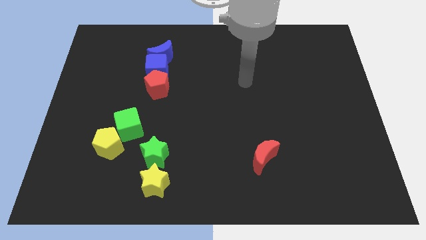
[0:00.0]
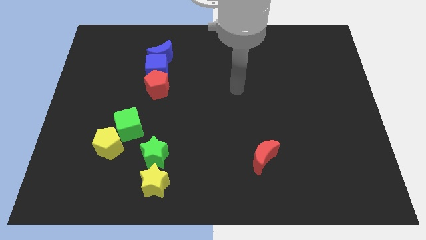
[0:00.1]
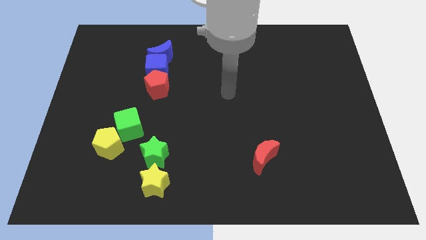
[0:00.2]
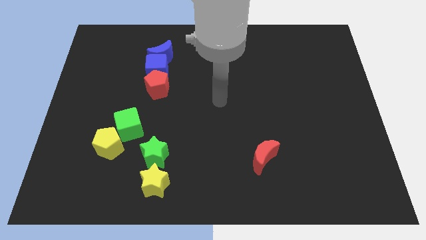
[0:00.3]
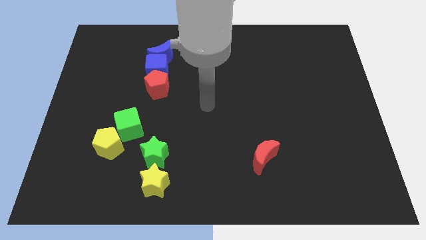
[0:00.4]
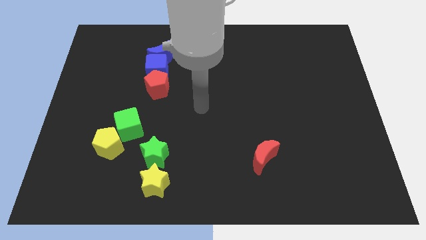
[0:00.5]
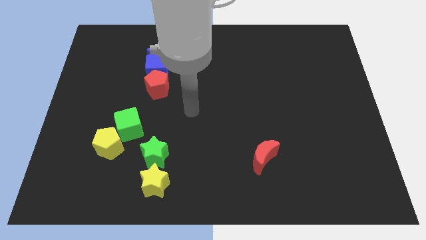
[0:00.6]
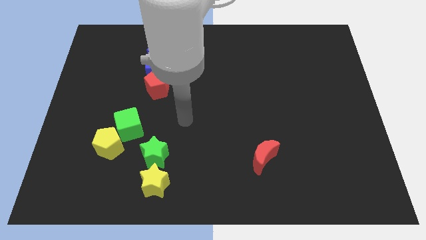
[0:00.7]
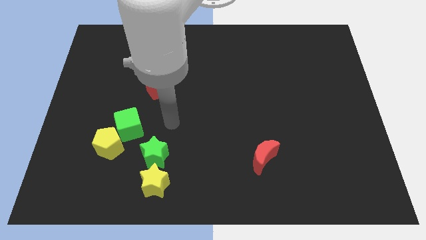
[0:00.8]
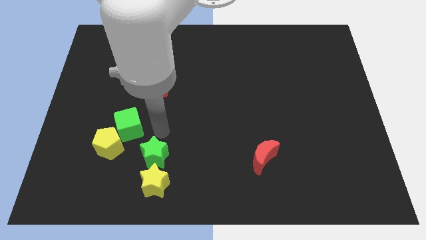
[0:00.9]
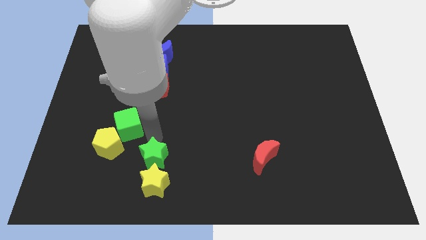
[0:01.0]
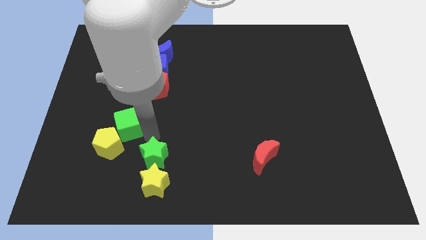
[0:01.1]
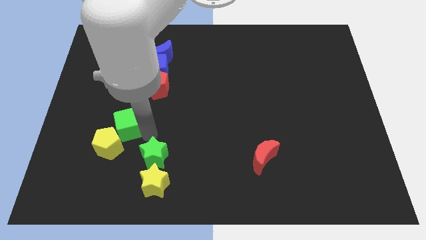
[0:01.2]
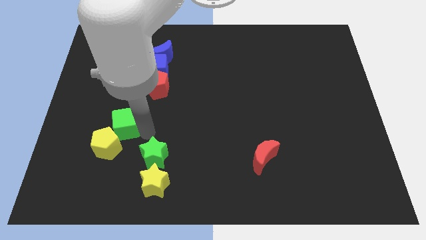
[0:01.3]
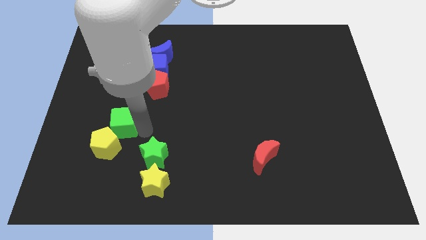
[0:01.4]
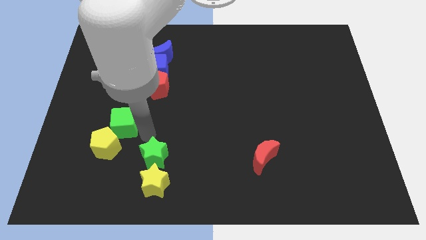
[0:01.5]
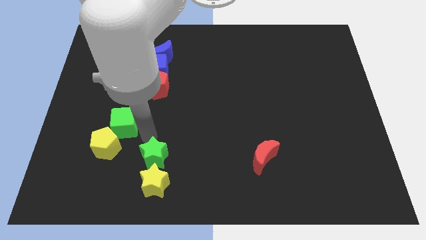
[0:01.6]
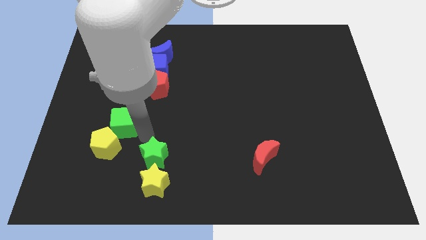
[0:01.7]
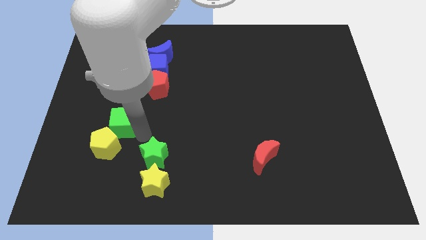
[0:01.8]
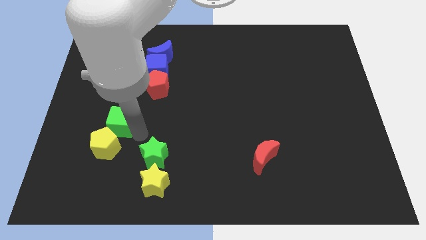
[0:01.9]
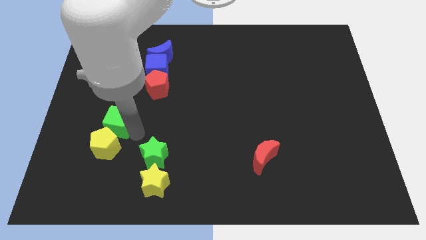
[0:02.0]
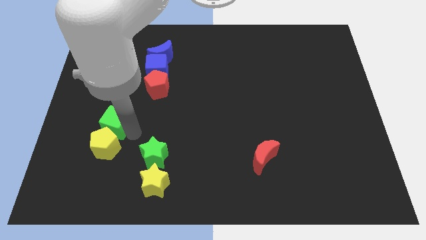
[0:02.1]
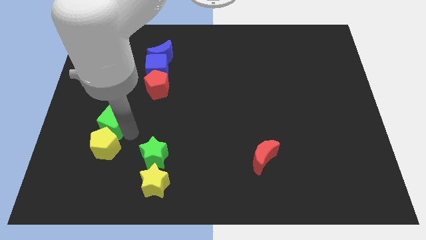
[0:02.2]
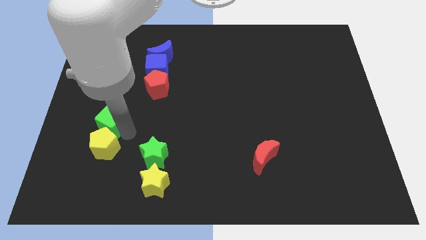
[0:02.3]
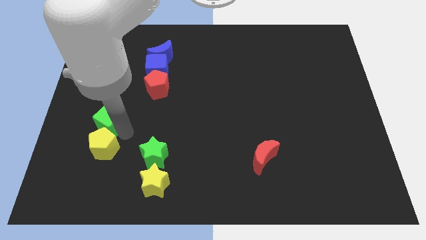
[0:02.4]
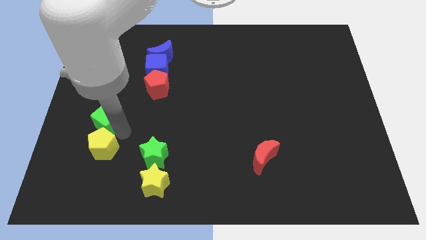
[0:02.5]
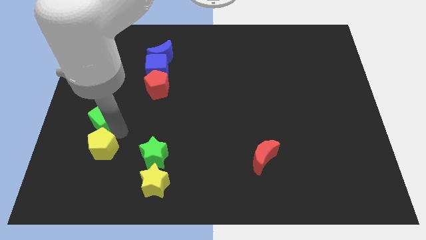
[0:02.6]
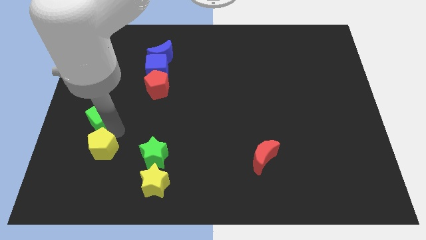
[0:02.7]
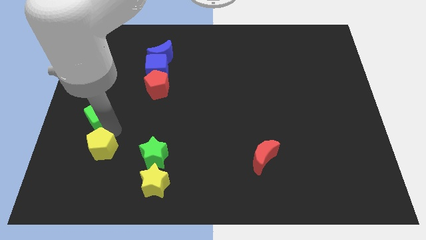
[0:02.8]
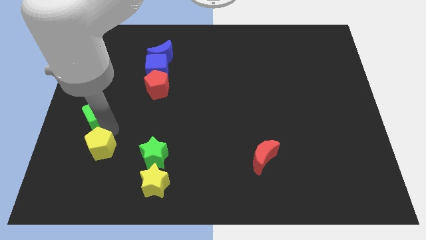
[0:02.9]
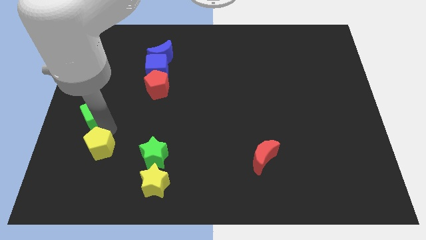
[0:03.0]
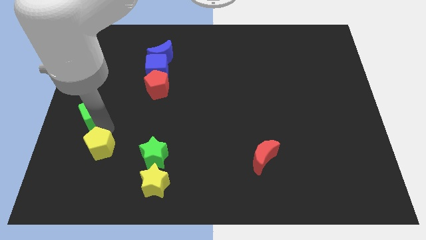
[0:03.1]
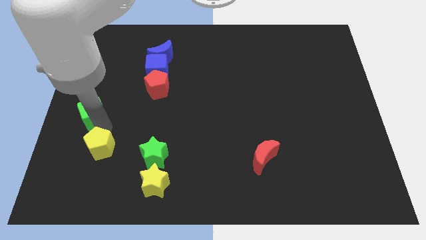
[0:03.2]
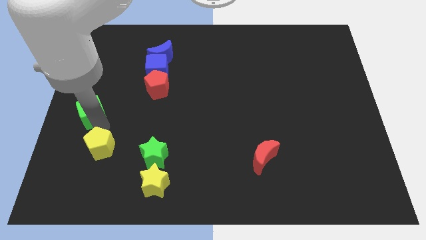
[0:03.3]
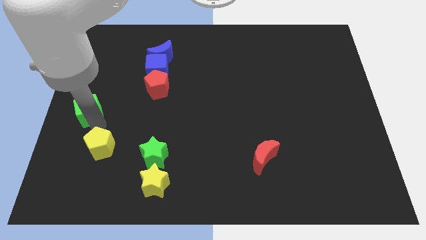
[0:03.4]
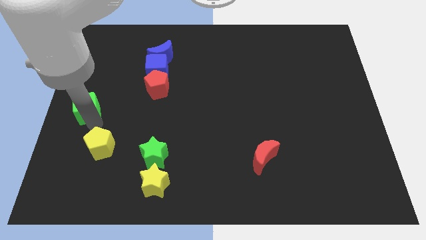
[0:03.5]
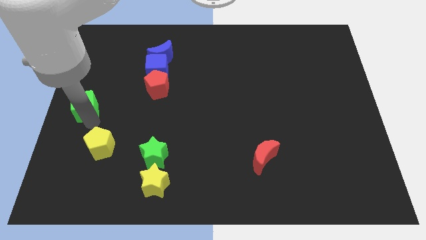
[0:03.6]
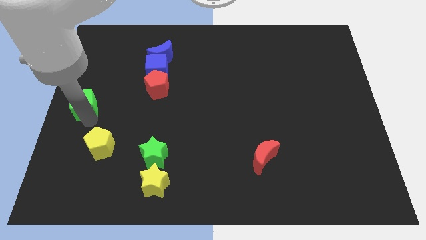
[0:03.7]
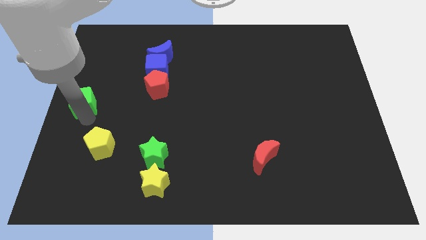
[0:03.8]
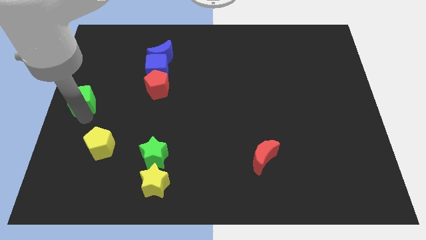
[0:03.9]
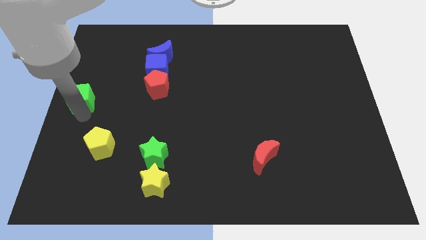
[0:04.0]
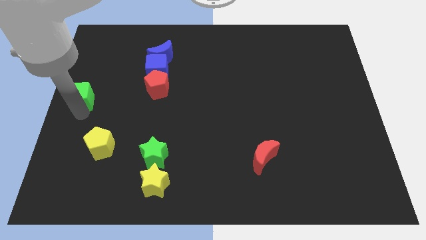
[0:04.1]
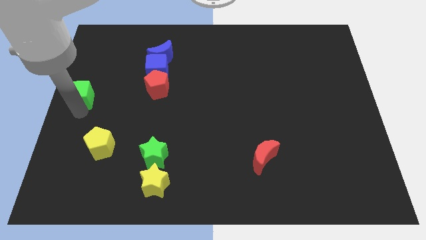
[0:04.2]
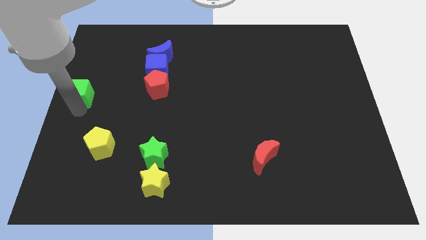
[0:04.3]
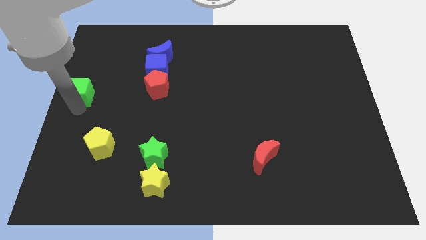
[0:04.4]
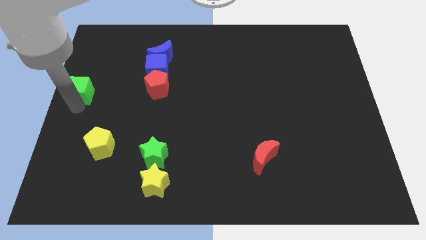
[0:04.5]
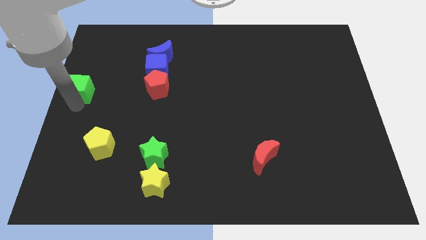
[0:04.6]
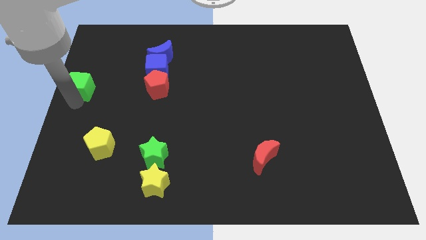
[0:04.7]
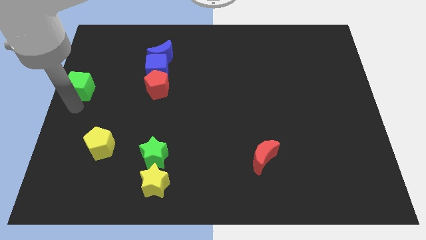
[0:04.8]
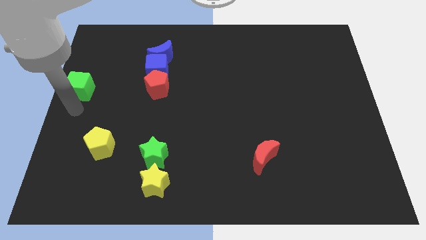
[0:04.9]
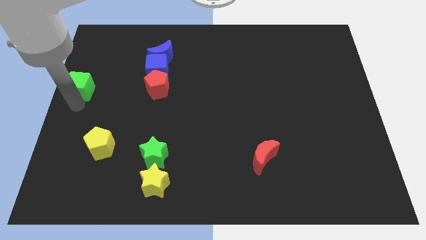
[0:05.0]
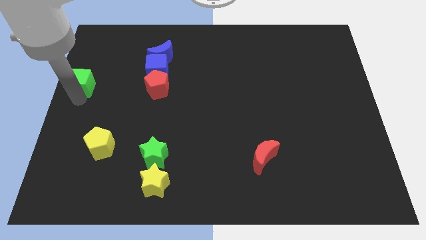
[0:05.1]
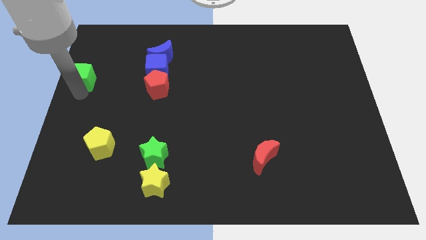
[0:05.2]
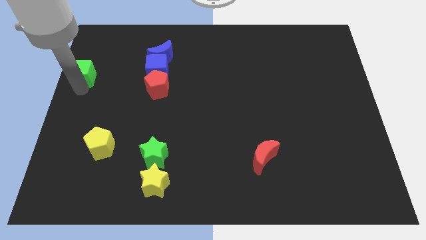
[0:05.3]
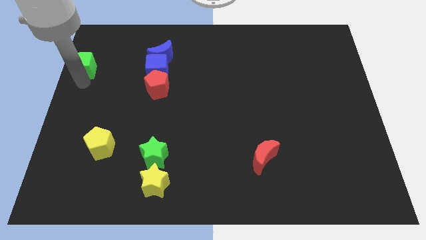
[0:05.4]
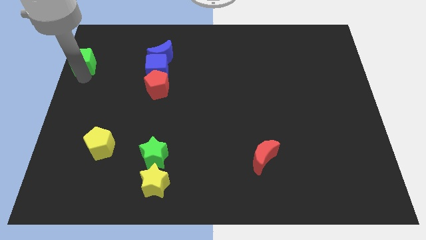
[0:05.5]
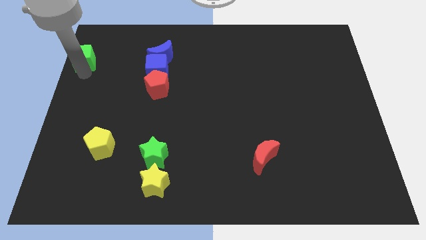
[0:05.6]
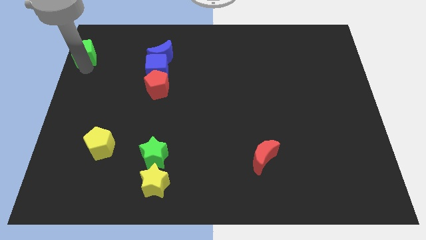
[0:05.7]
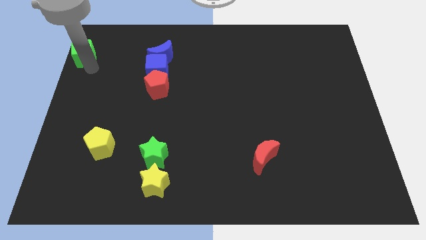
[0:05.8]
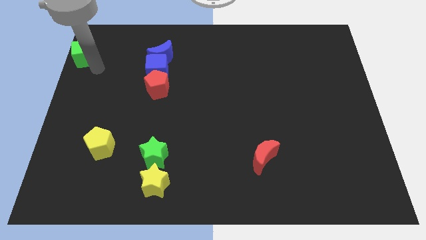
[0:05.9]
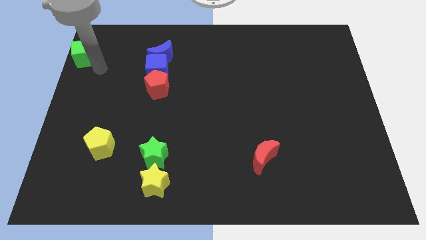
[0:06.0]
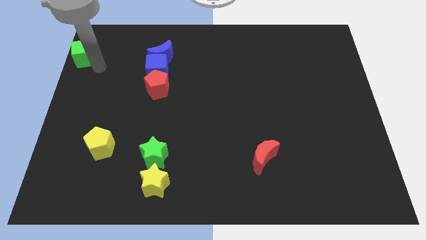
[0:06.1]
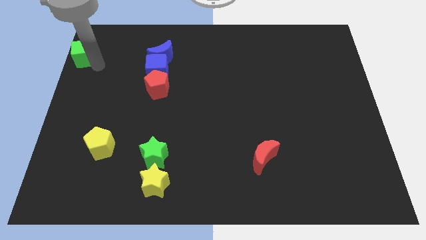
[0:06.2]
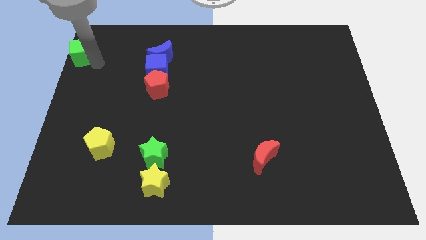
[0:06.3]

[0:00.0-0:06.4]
move the green cube to the top left of the board

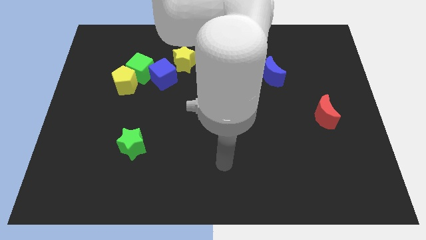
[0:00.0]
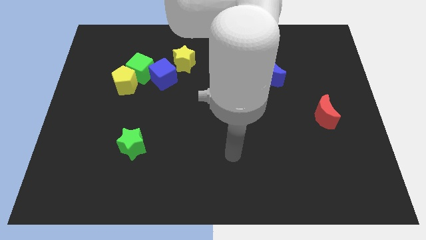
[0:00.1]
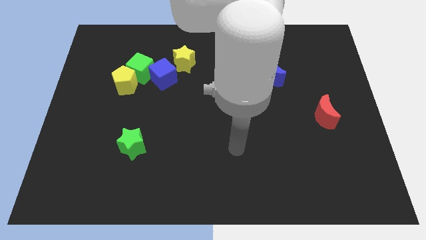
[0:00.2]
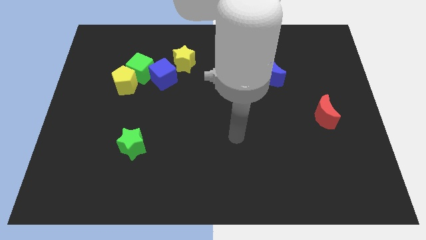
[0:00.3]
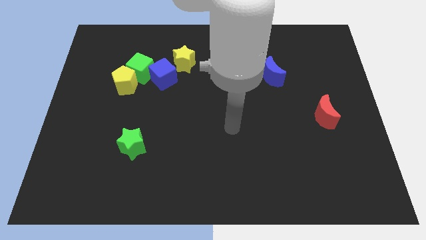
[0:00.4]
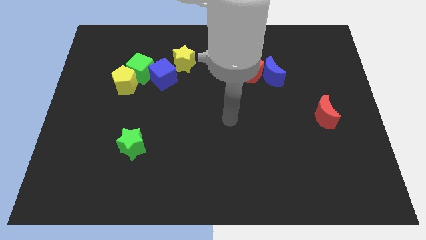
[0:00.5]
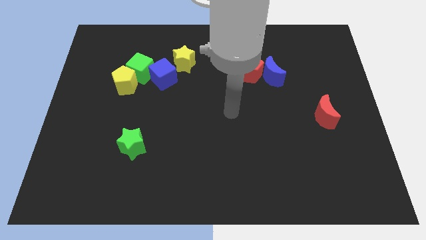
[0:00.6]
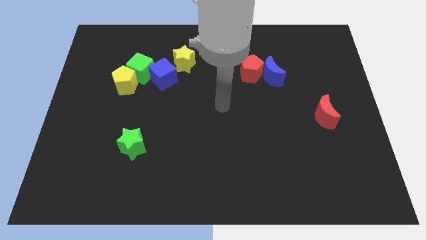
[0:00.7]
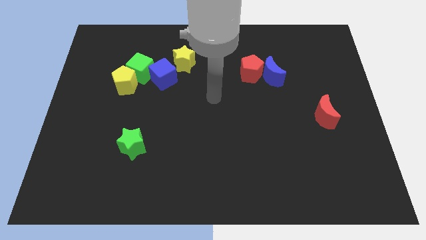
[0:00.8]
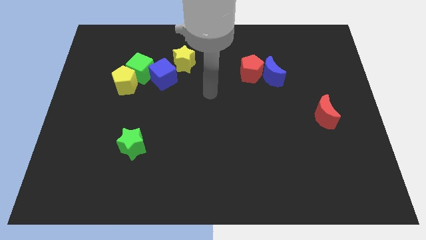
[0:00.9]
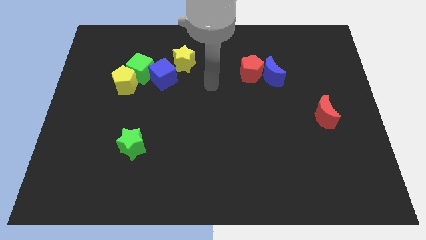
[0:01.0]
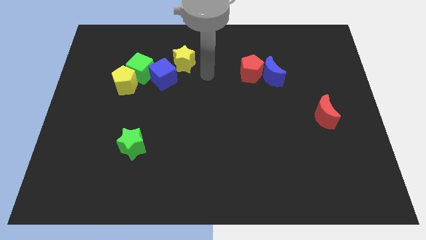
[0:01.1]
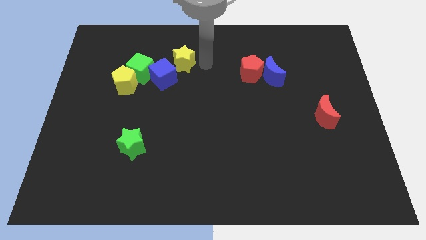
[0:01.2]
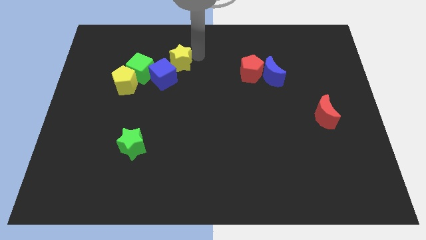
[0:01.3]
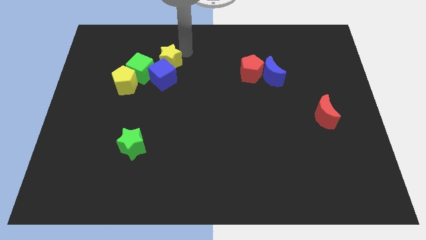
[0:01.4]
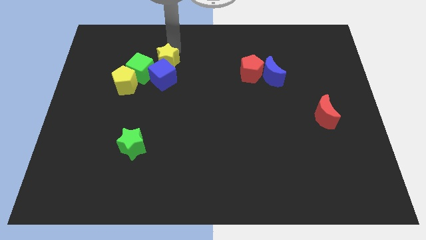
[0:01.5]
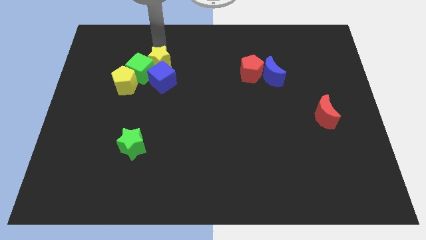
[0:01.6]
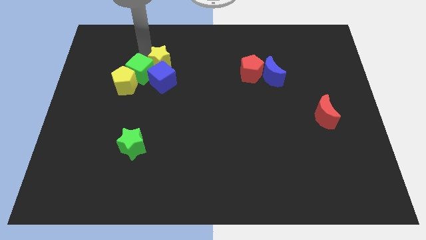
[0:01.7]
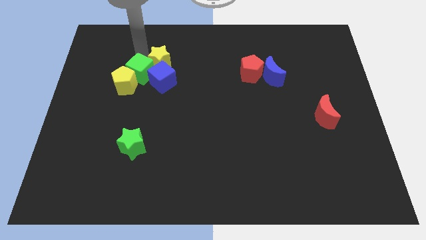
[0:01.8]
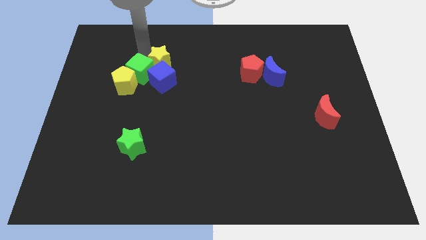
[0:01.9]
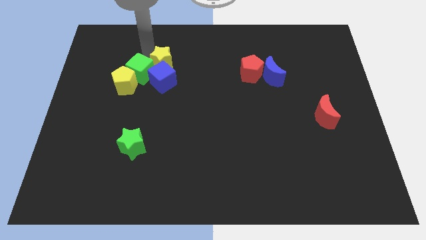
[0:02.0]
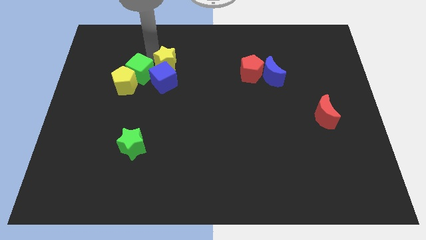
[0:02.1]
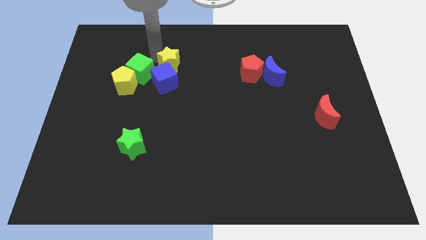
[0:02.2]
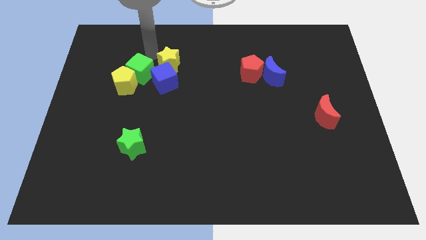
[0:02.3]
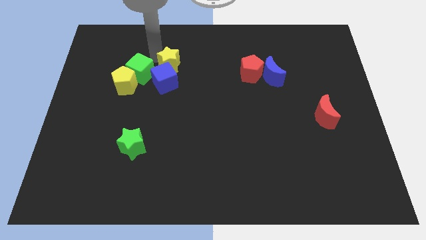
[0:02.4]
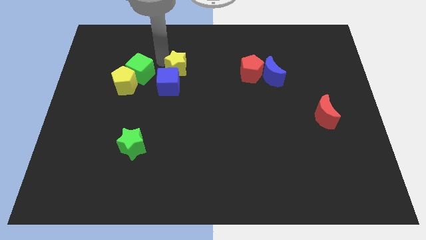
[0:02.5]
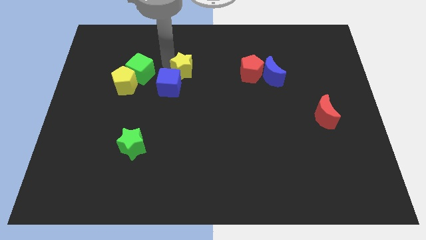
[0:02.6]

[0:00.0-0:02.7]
put the yellow star to the center
